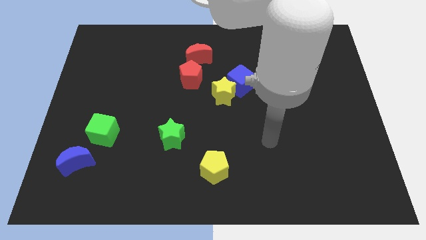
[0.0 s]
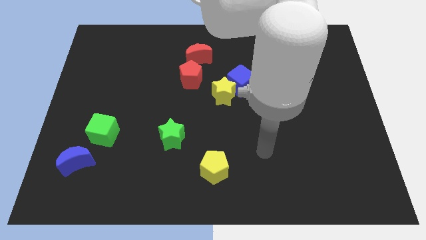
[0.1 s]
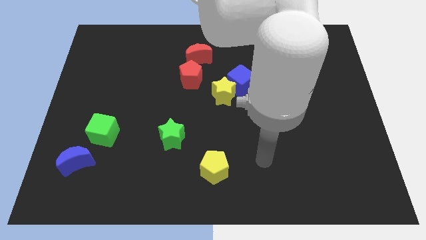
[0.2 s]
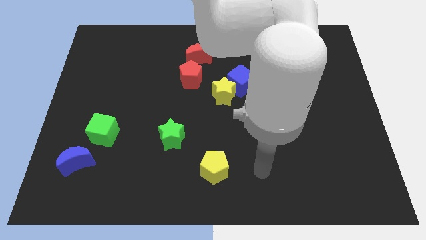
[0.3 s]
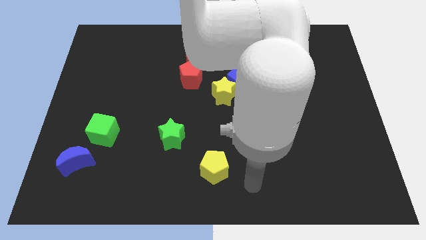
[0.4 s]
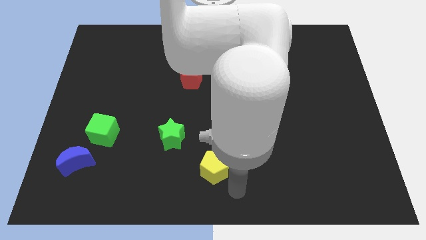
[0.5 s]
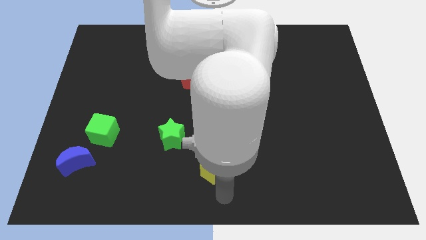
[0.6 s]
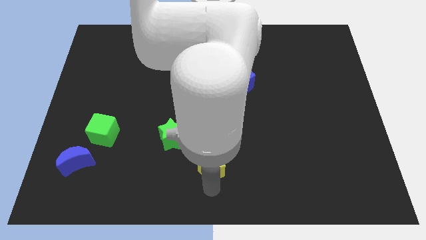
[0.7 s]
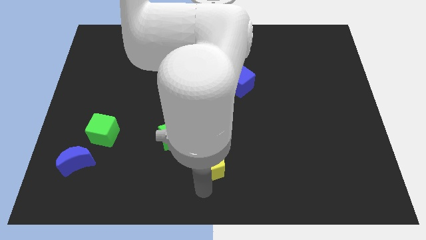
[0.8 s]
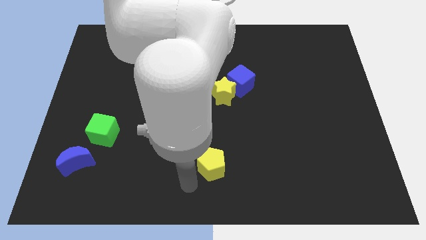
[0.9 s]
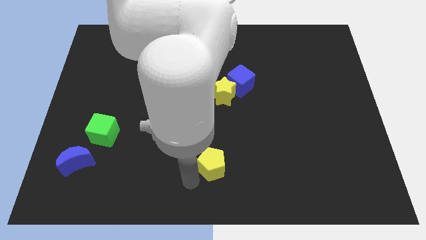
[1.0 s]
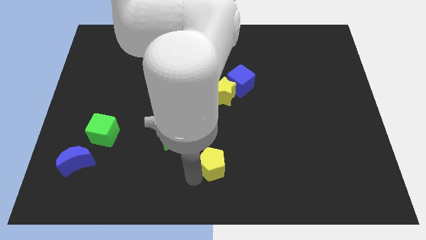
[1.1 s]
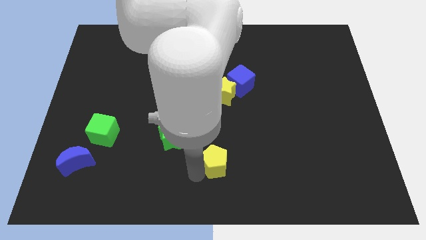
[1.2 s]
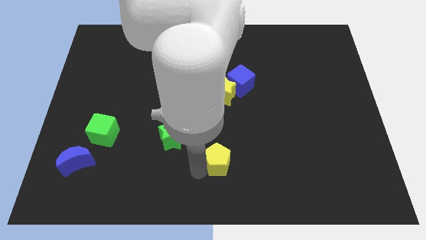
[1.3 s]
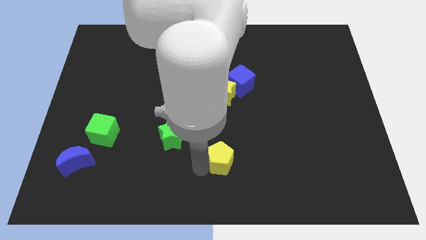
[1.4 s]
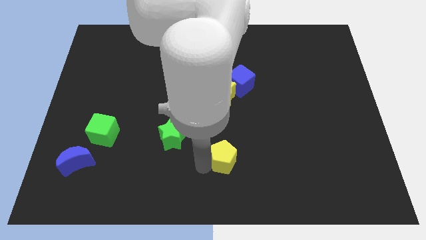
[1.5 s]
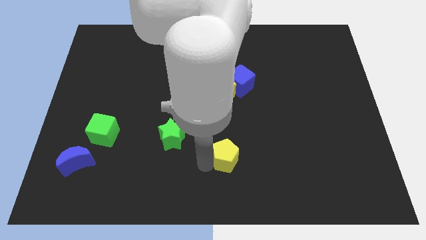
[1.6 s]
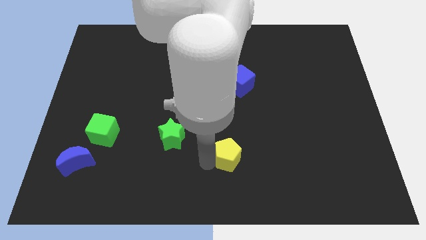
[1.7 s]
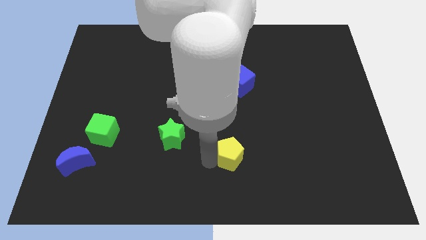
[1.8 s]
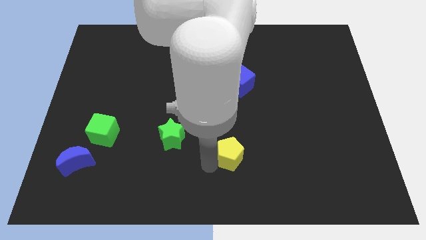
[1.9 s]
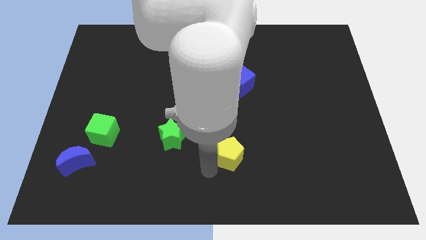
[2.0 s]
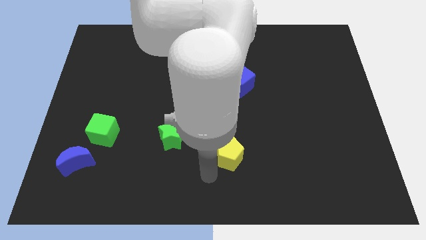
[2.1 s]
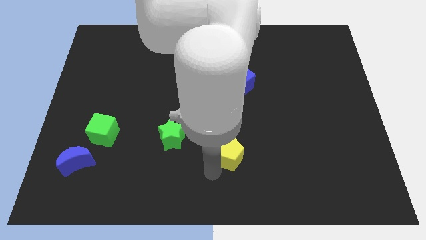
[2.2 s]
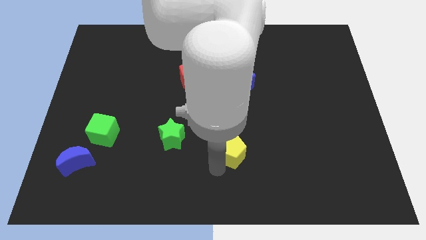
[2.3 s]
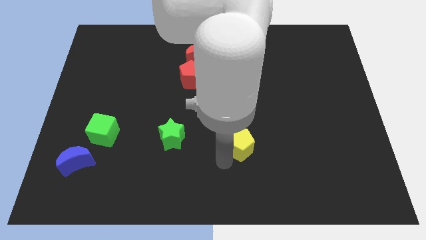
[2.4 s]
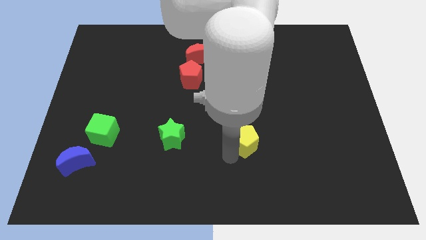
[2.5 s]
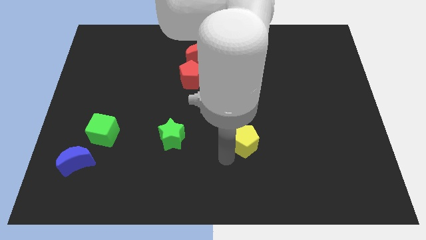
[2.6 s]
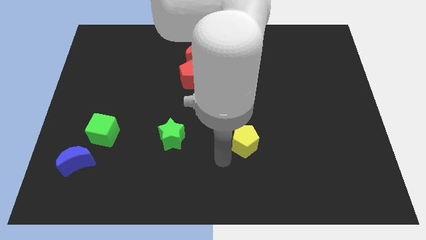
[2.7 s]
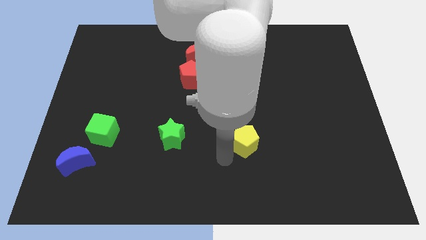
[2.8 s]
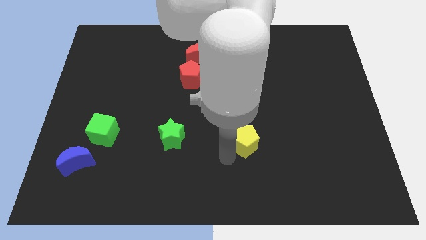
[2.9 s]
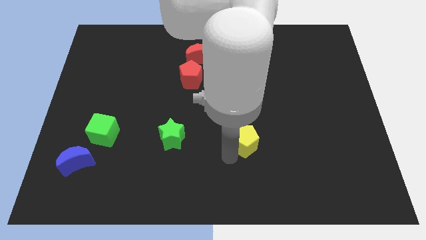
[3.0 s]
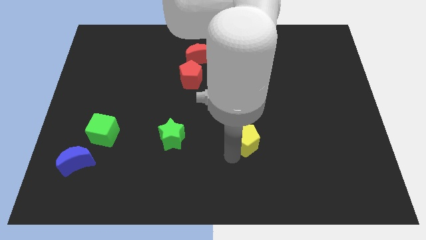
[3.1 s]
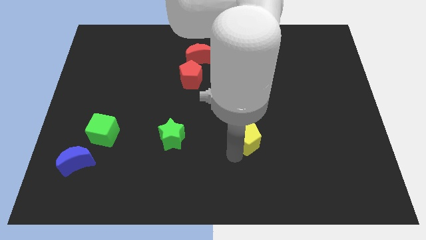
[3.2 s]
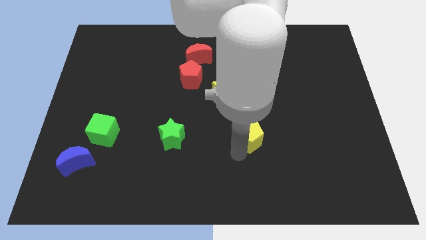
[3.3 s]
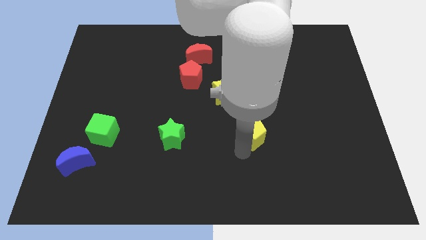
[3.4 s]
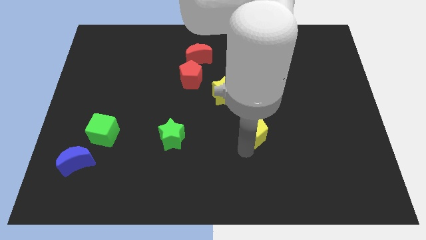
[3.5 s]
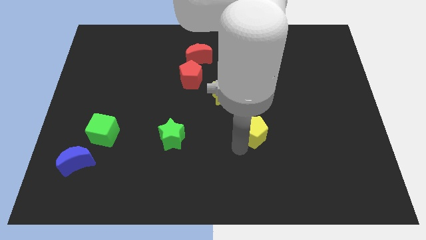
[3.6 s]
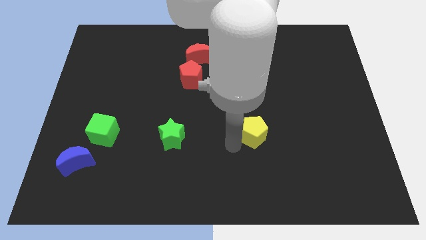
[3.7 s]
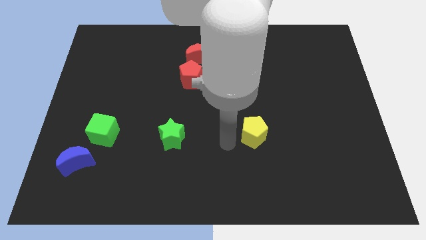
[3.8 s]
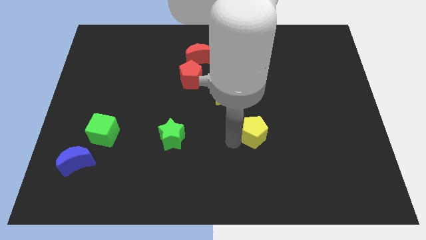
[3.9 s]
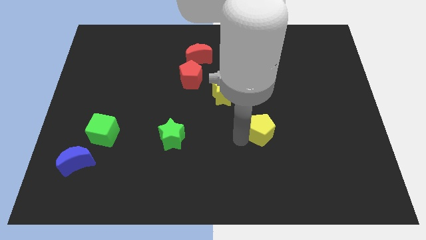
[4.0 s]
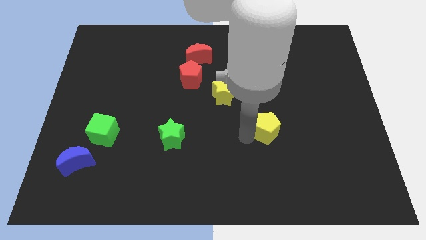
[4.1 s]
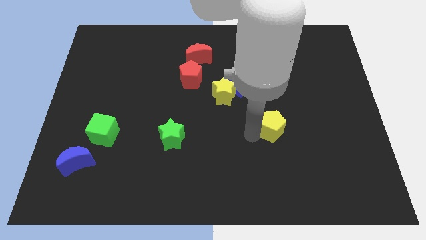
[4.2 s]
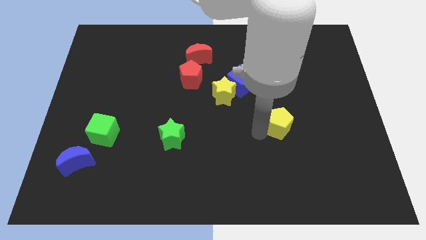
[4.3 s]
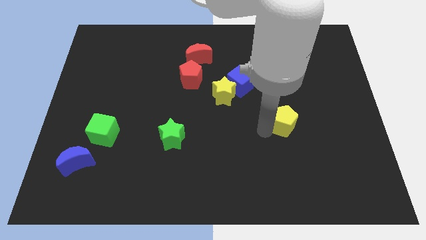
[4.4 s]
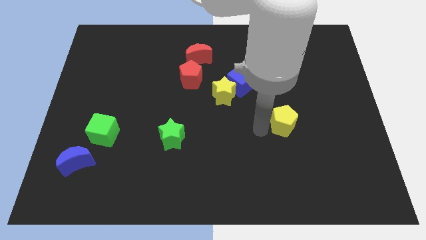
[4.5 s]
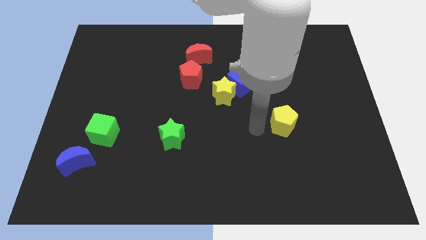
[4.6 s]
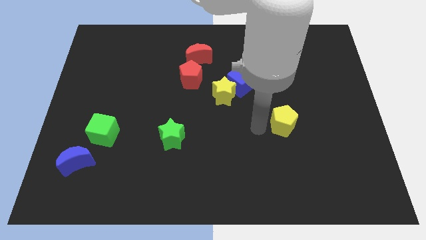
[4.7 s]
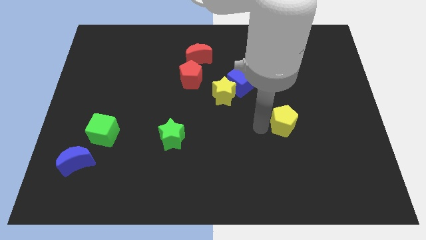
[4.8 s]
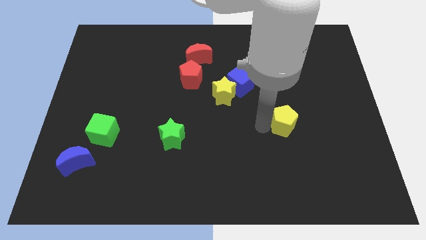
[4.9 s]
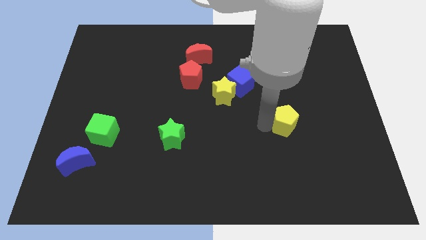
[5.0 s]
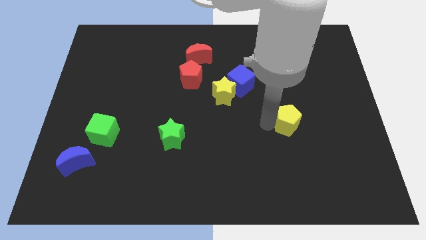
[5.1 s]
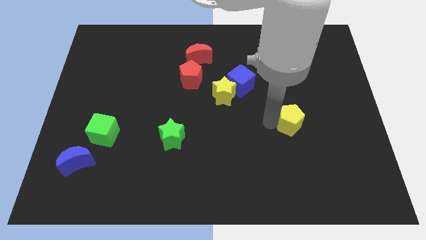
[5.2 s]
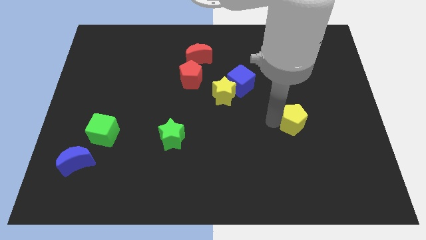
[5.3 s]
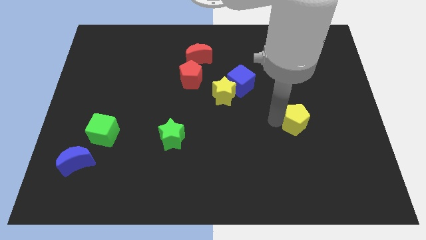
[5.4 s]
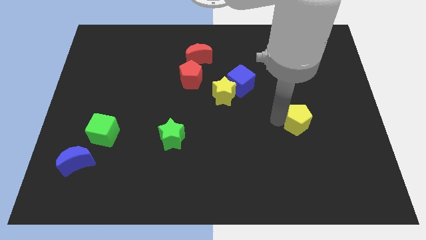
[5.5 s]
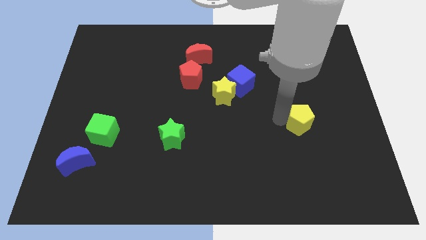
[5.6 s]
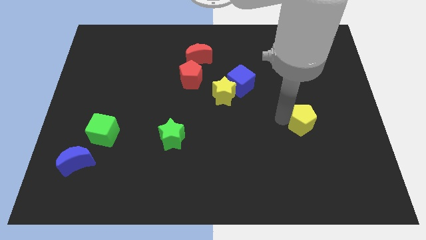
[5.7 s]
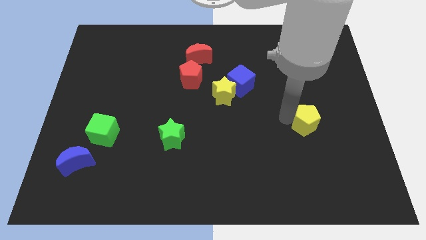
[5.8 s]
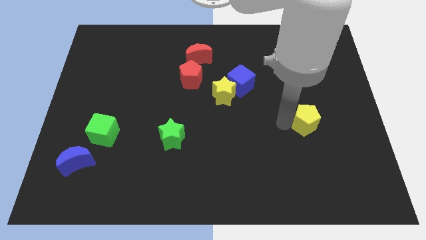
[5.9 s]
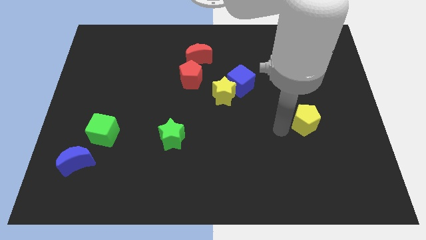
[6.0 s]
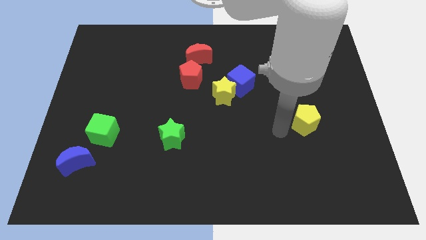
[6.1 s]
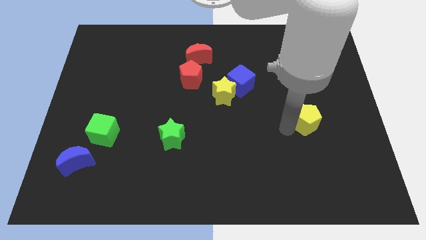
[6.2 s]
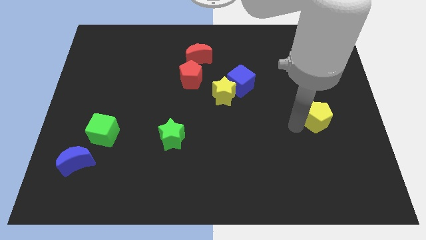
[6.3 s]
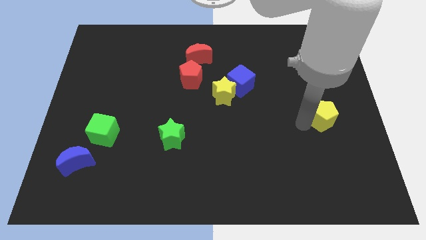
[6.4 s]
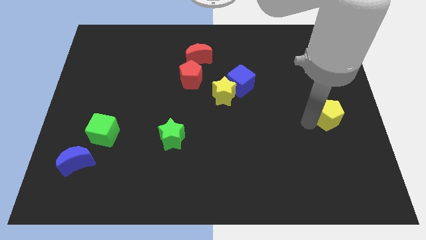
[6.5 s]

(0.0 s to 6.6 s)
move the yellow pentagon to the right side of the board
